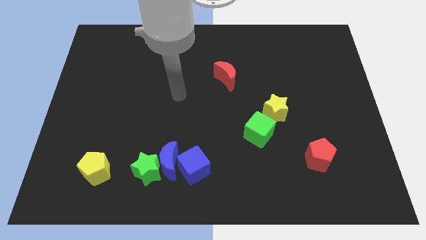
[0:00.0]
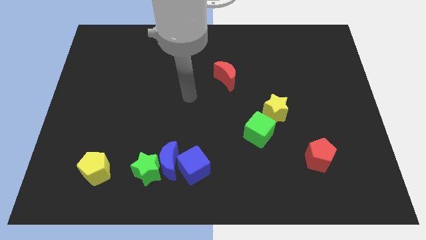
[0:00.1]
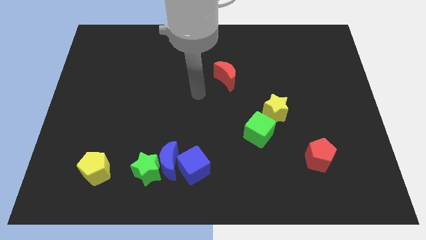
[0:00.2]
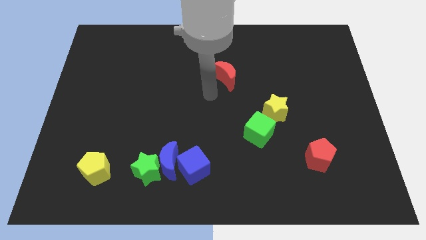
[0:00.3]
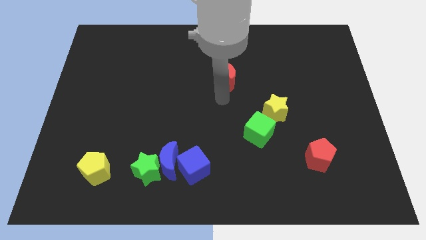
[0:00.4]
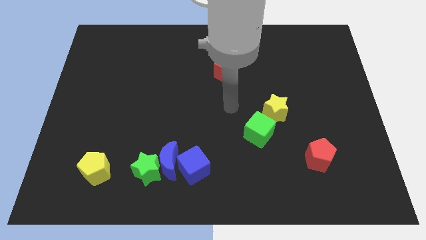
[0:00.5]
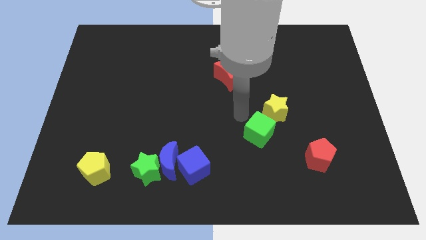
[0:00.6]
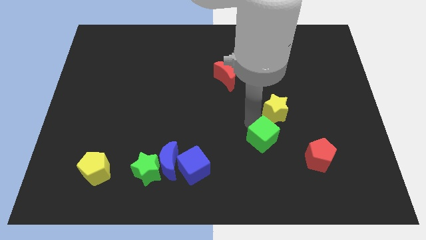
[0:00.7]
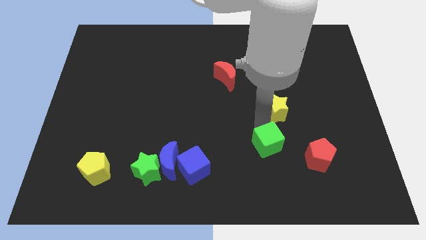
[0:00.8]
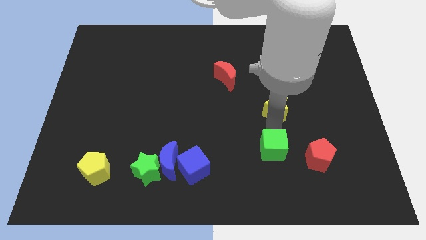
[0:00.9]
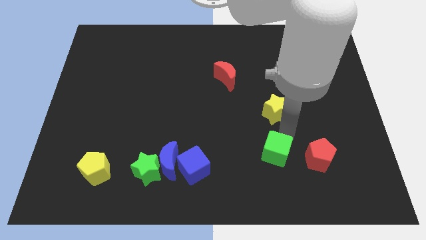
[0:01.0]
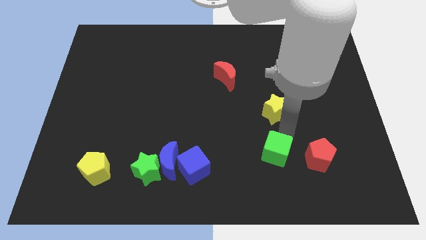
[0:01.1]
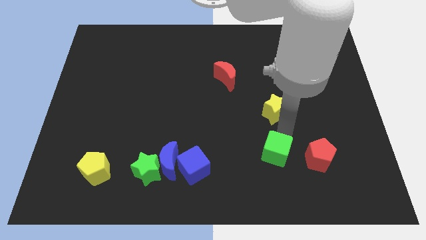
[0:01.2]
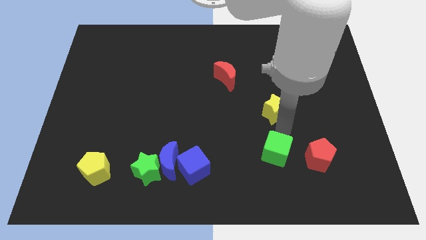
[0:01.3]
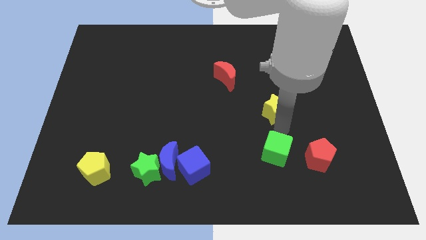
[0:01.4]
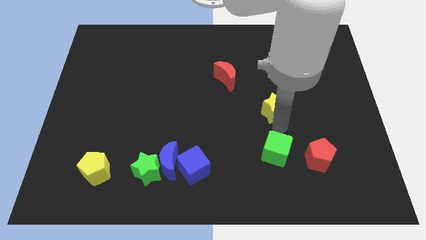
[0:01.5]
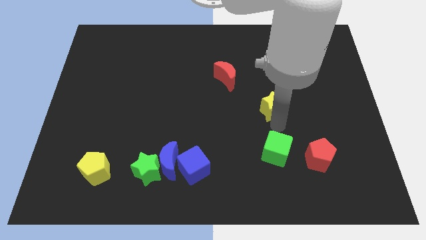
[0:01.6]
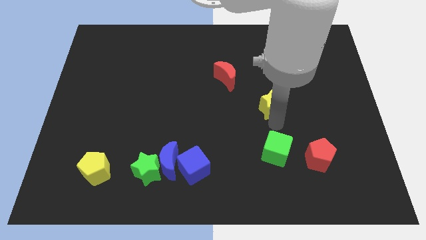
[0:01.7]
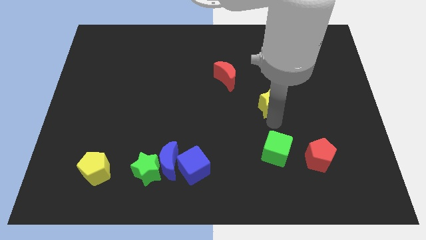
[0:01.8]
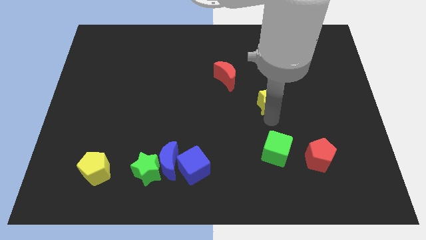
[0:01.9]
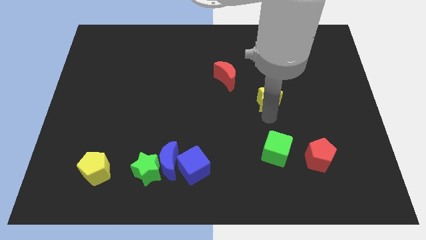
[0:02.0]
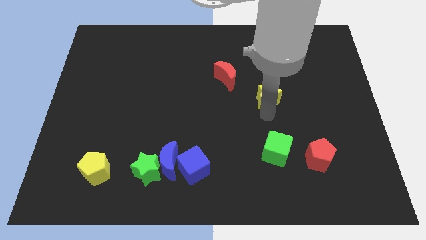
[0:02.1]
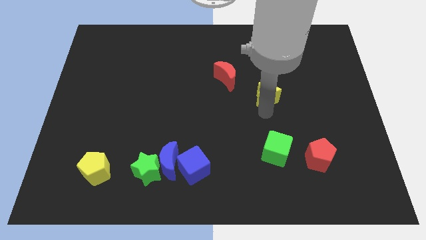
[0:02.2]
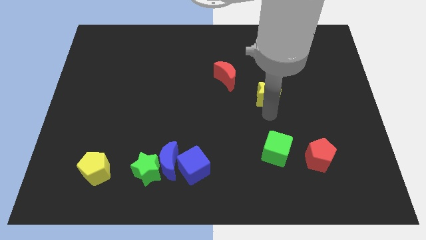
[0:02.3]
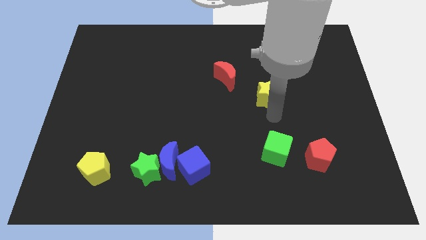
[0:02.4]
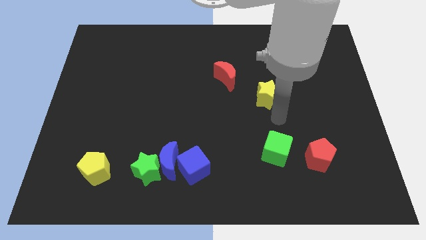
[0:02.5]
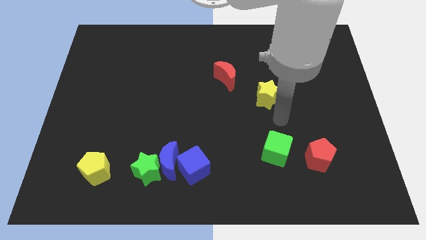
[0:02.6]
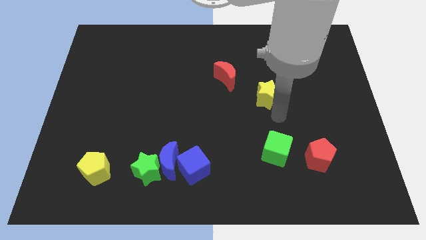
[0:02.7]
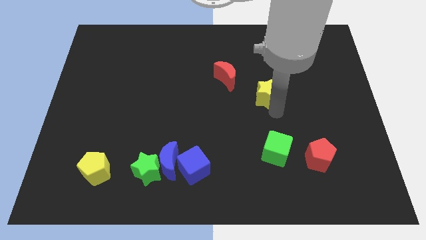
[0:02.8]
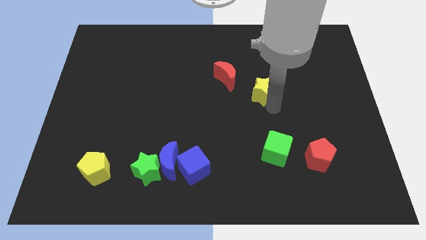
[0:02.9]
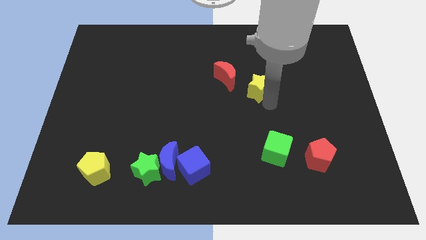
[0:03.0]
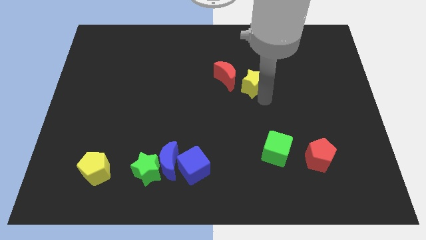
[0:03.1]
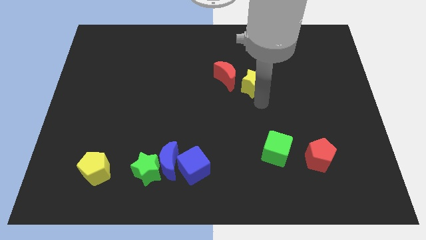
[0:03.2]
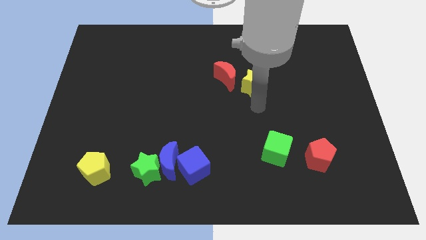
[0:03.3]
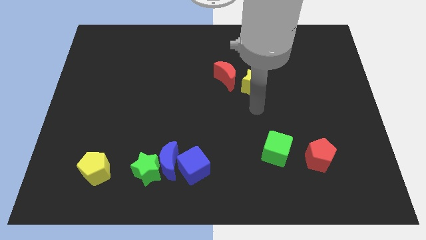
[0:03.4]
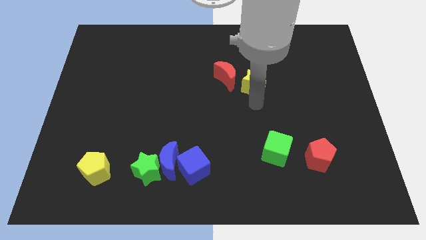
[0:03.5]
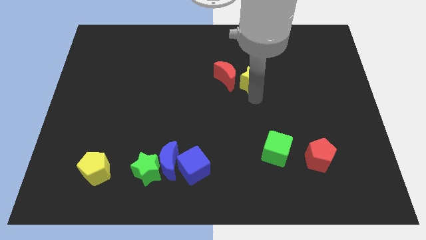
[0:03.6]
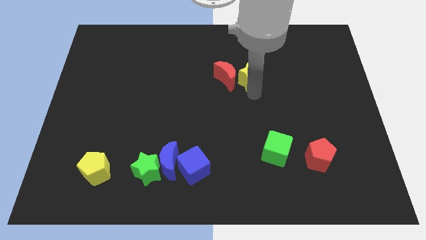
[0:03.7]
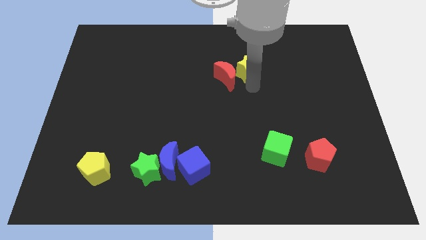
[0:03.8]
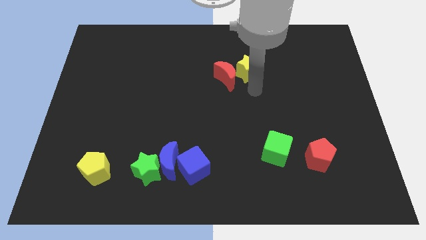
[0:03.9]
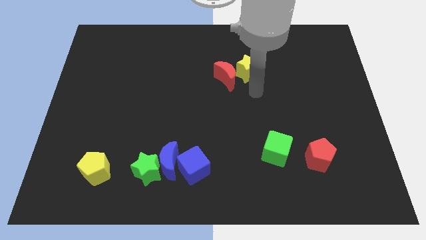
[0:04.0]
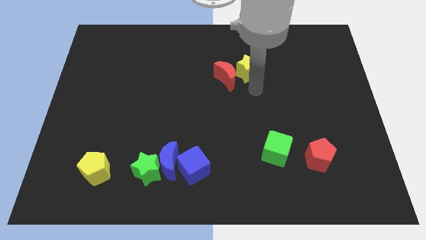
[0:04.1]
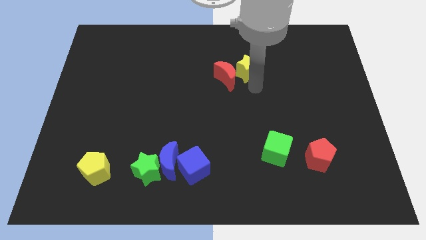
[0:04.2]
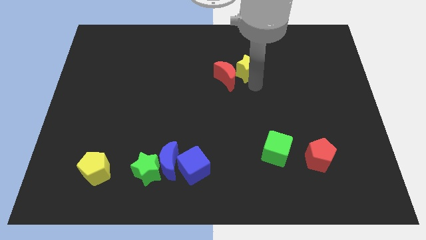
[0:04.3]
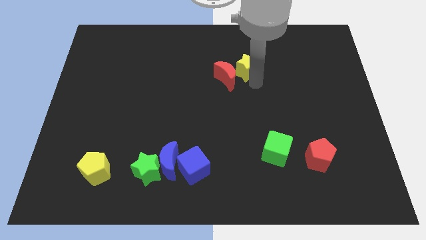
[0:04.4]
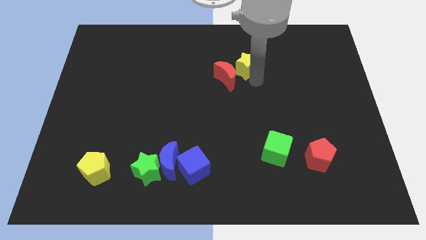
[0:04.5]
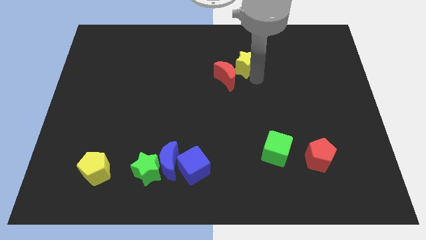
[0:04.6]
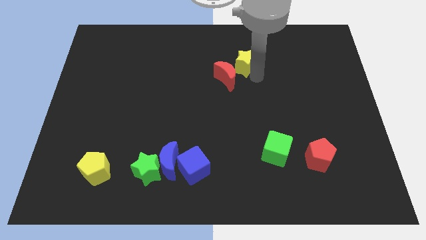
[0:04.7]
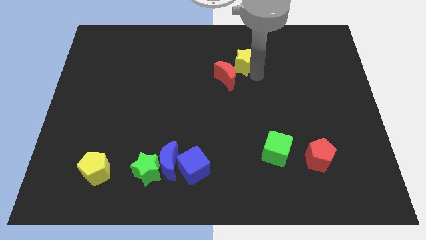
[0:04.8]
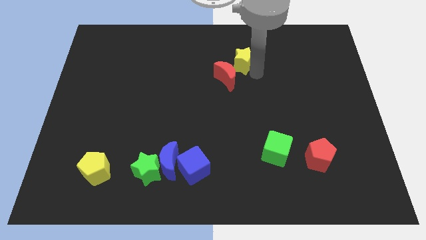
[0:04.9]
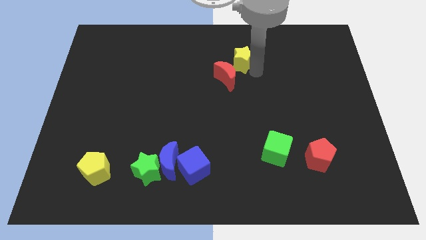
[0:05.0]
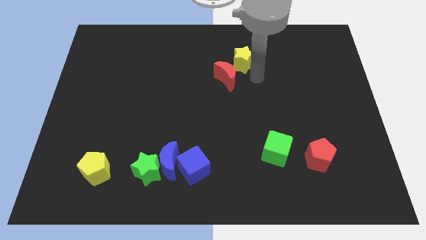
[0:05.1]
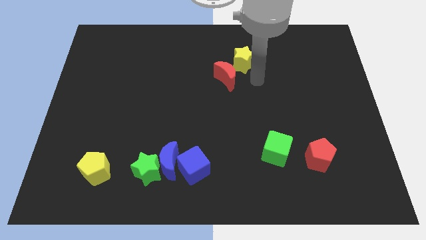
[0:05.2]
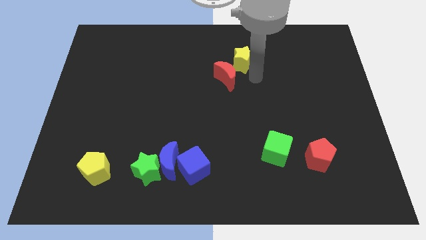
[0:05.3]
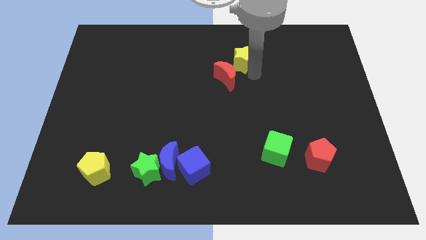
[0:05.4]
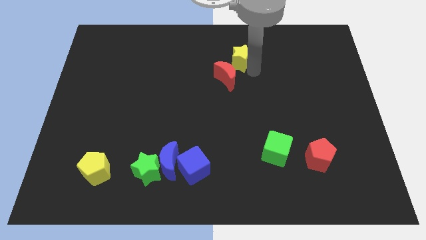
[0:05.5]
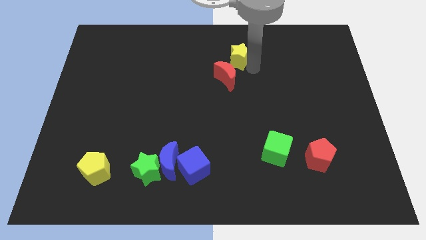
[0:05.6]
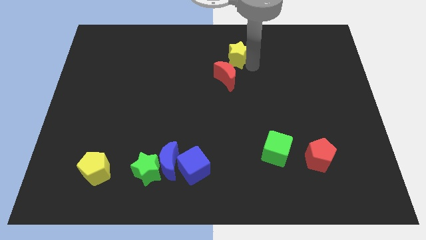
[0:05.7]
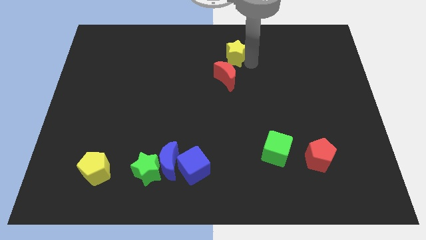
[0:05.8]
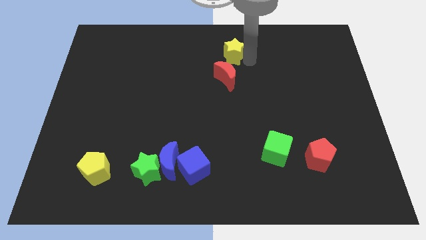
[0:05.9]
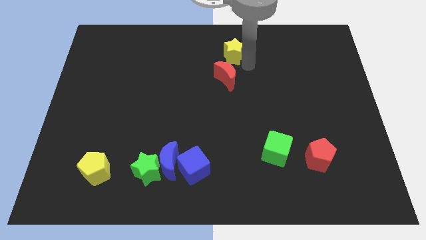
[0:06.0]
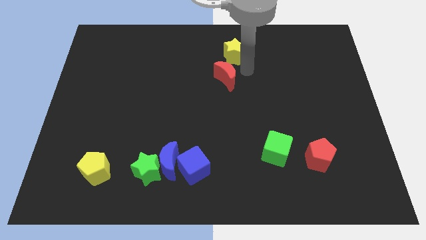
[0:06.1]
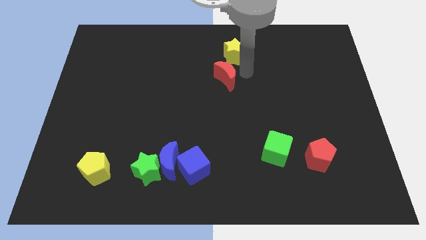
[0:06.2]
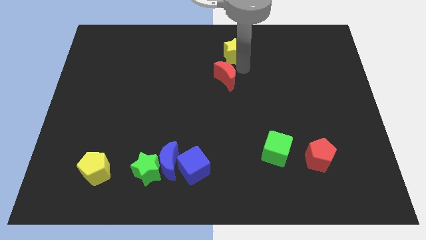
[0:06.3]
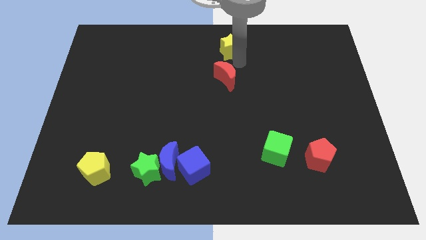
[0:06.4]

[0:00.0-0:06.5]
slide the yellow star to the towards your base
